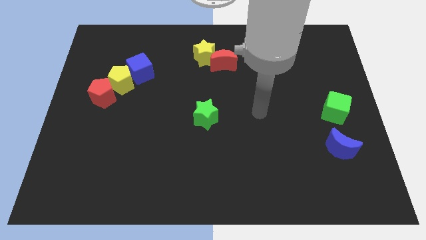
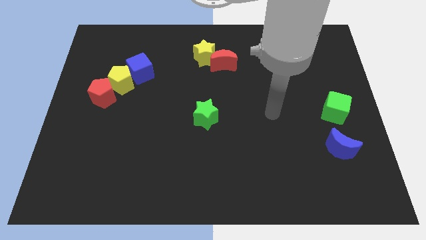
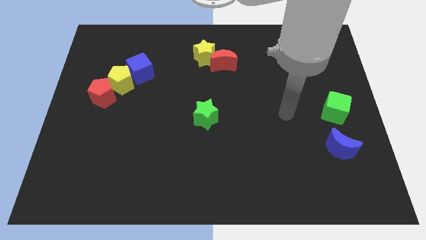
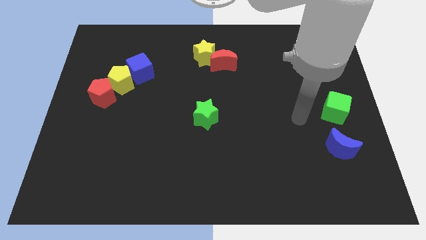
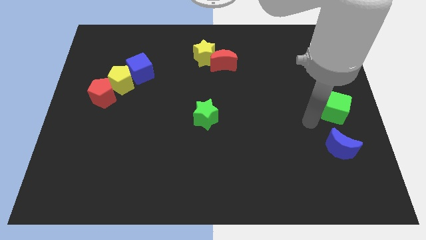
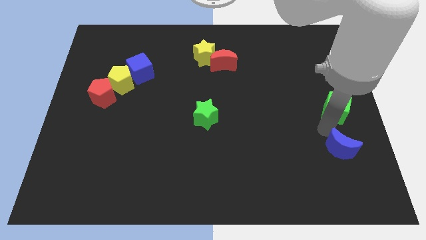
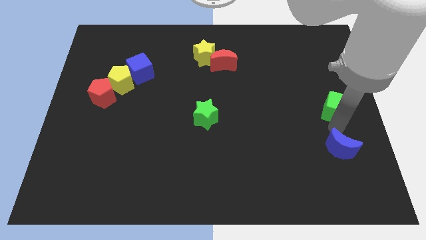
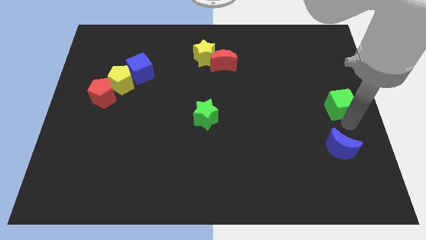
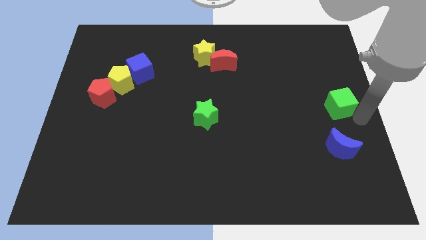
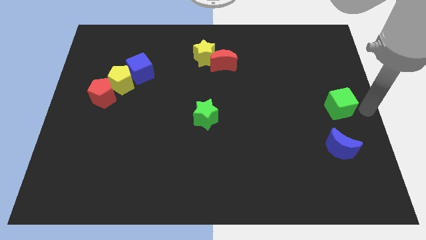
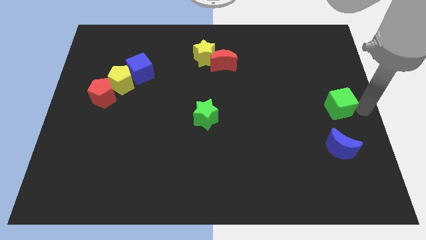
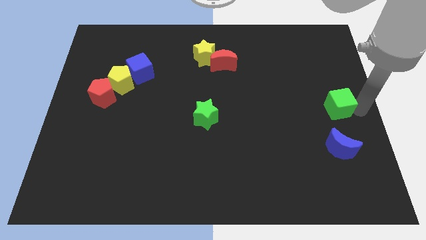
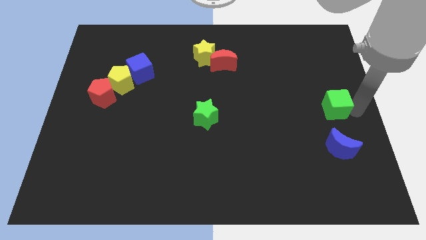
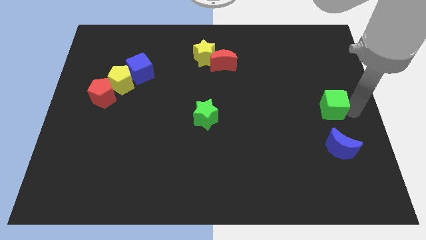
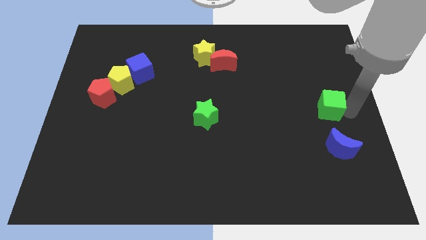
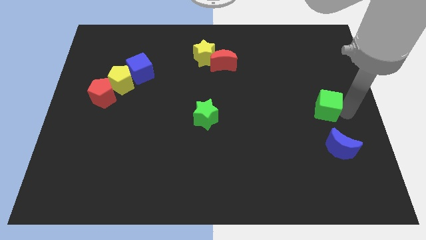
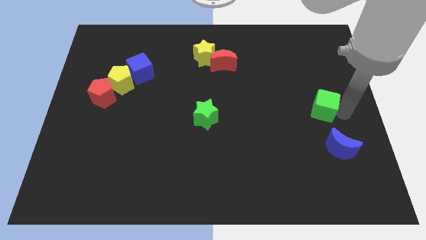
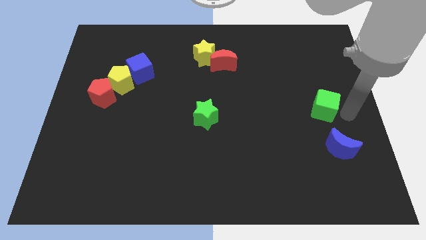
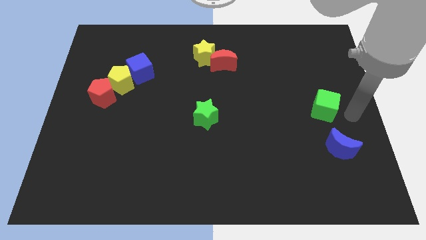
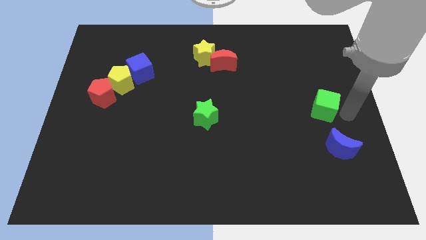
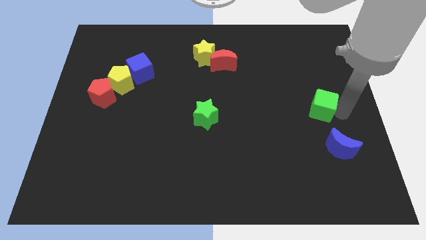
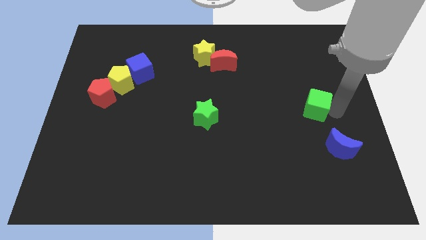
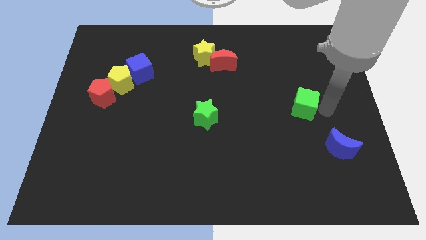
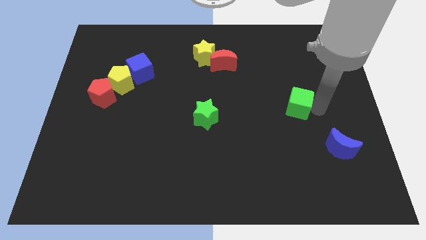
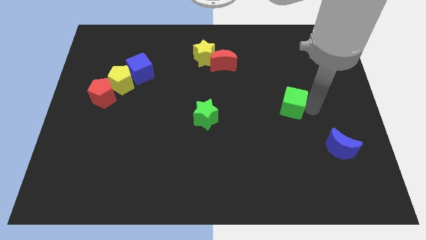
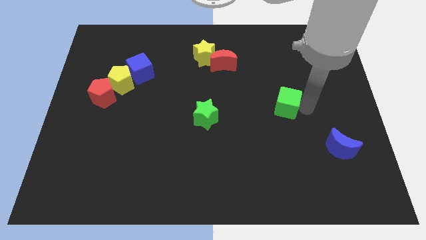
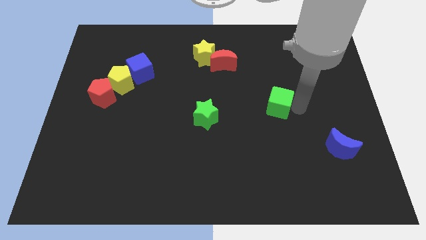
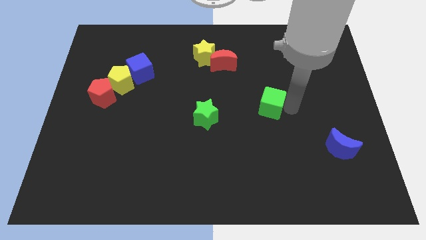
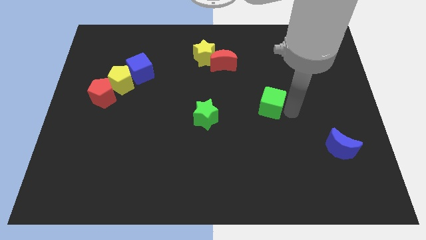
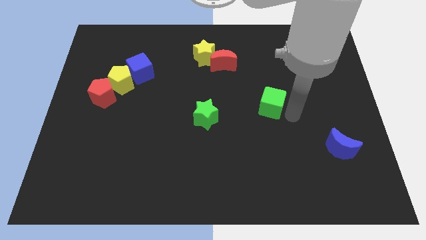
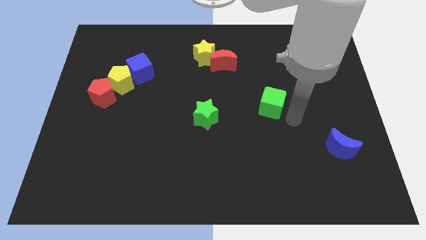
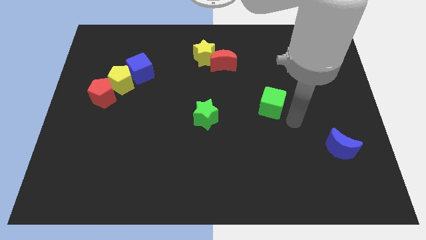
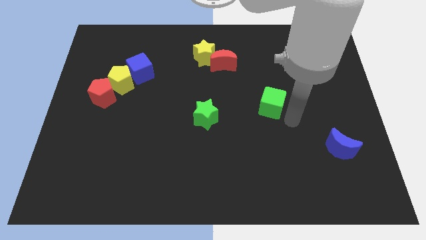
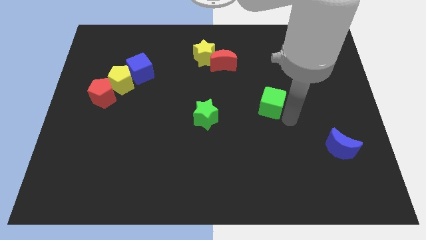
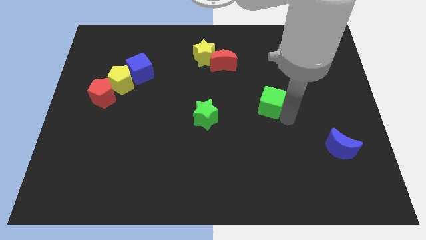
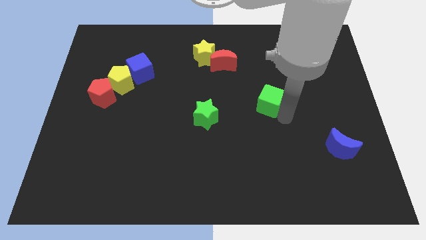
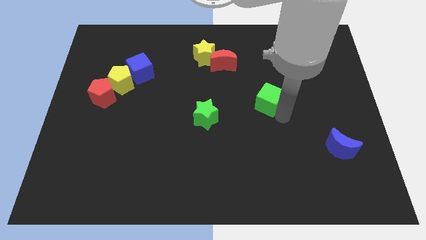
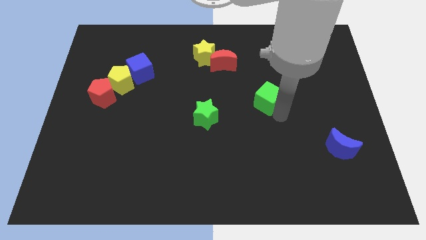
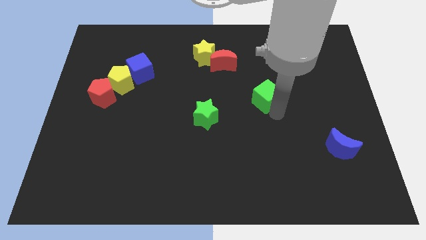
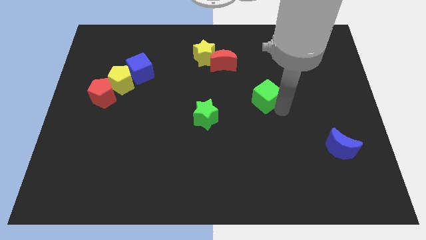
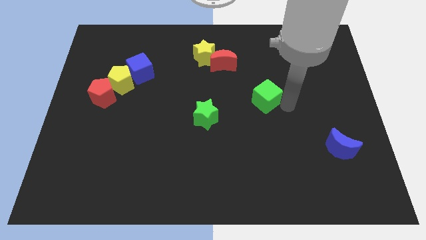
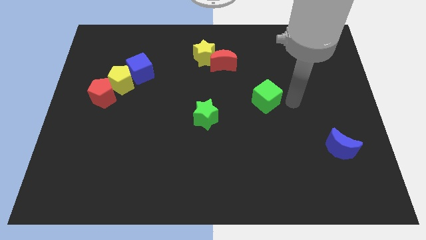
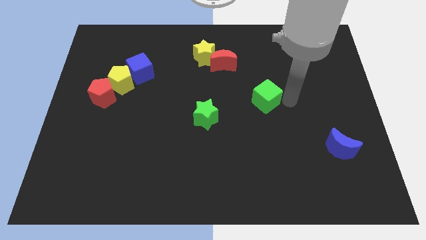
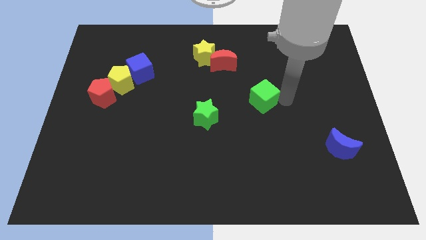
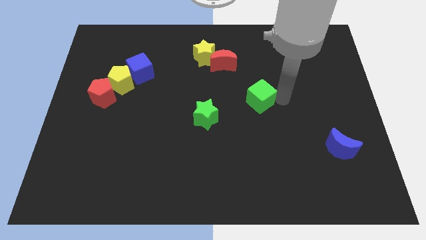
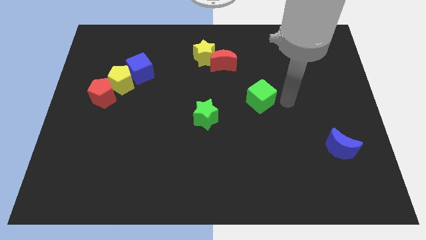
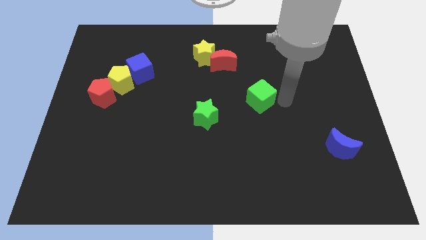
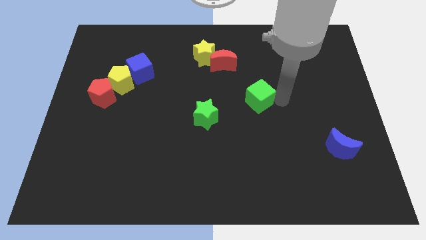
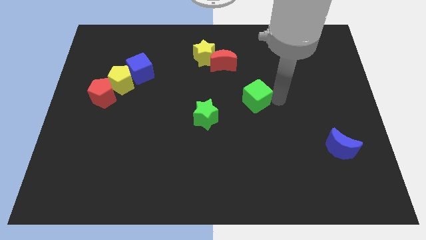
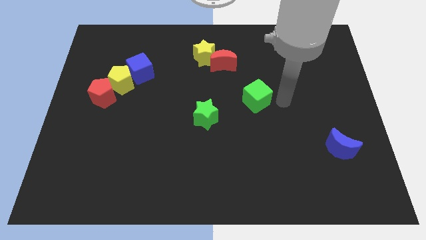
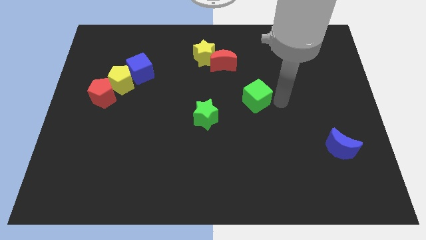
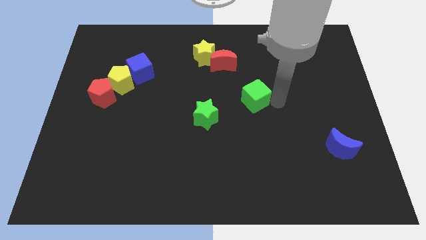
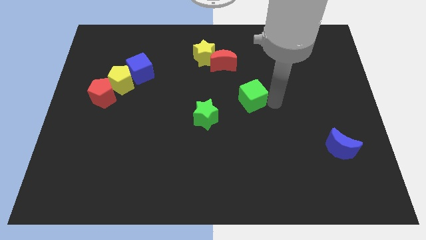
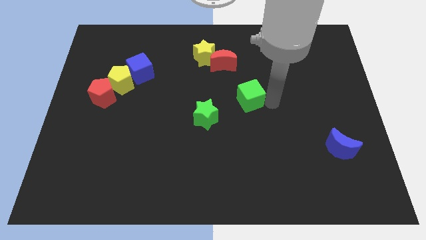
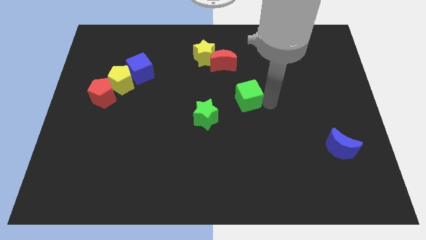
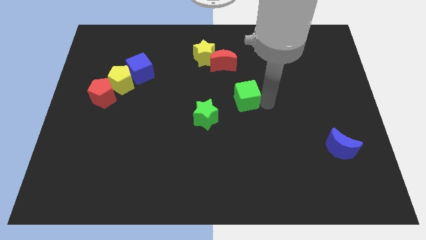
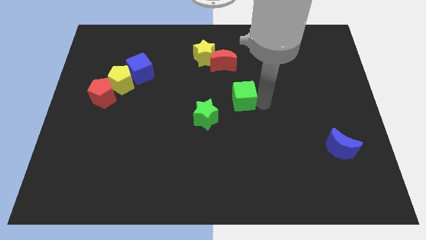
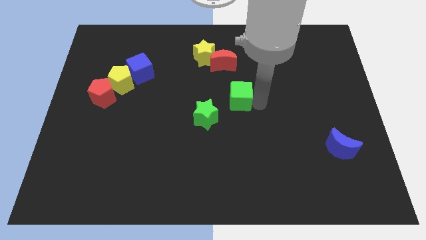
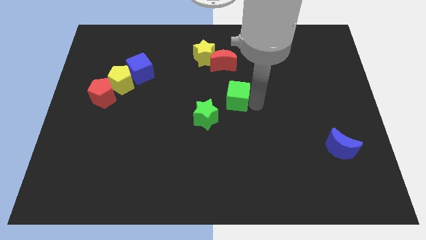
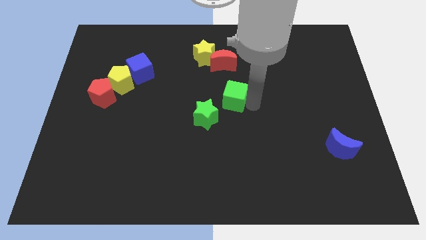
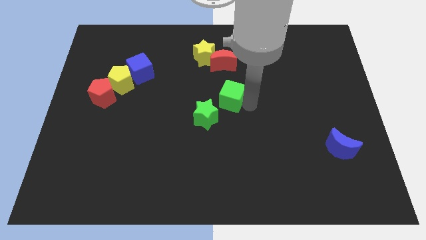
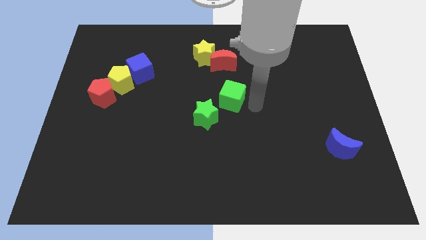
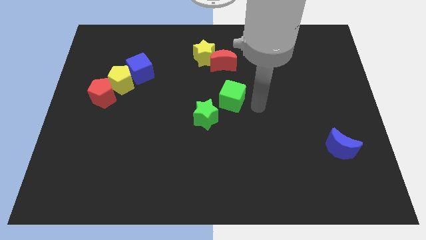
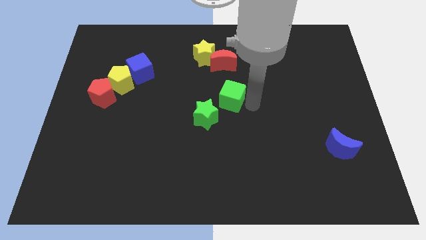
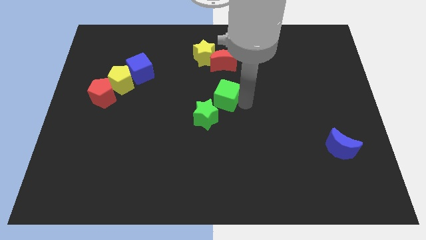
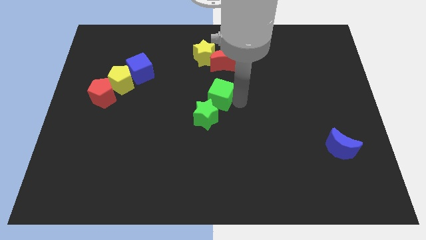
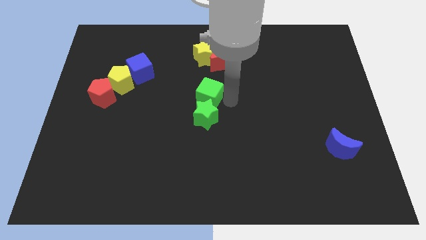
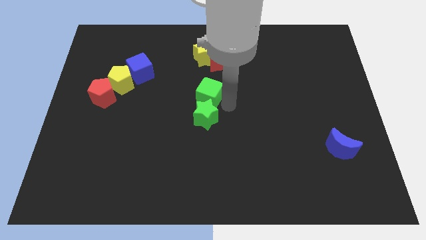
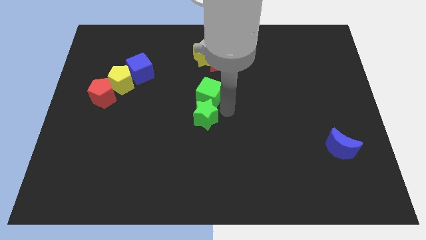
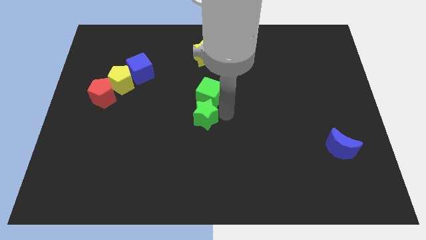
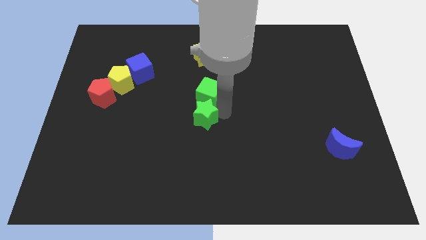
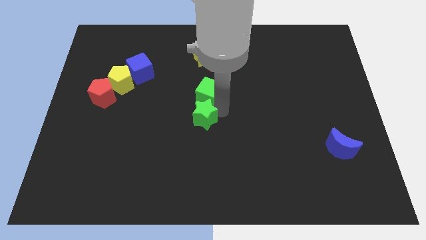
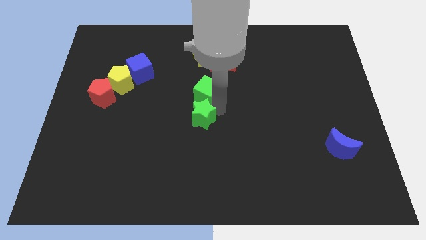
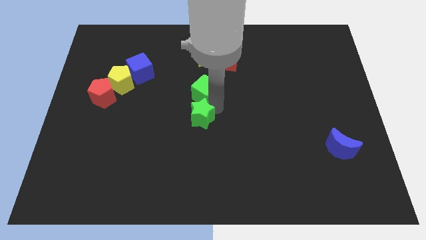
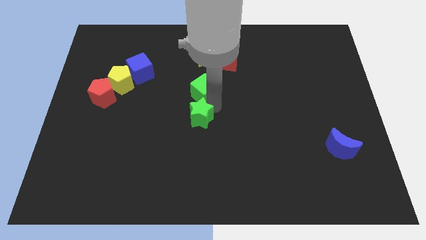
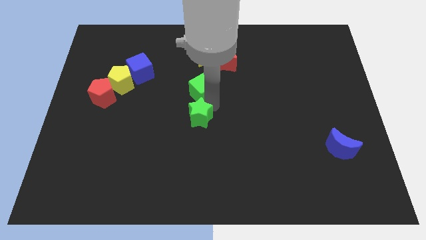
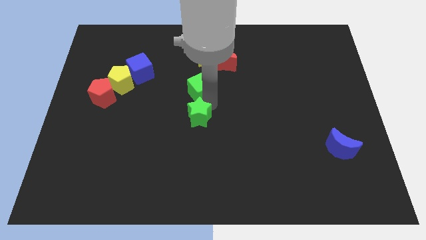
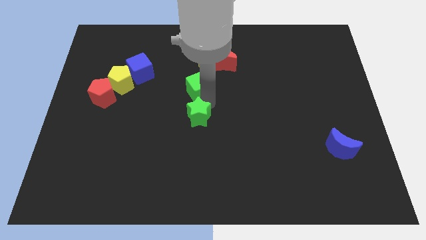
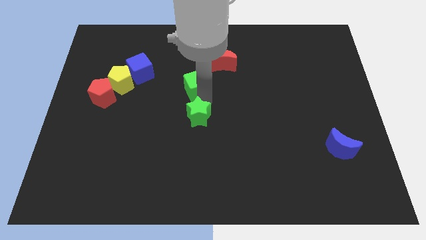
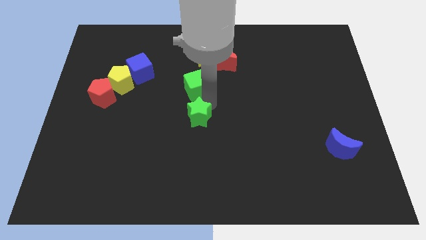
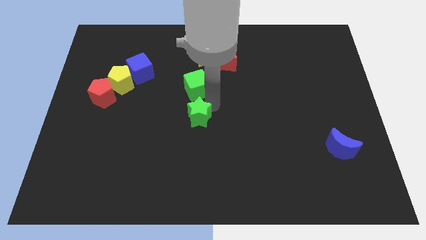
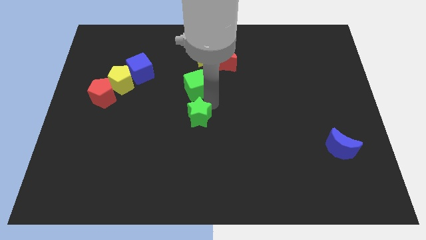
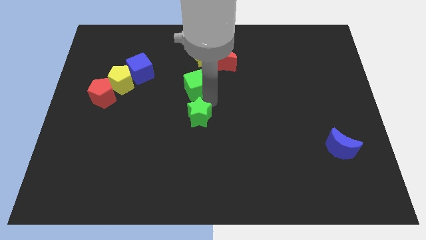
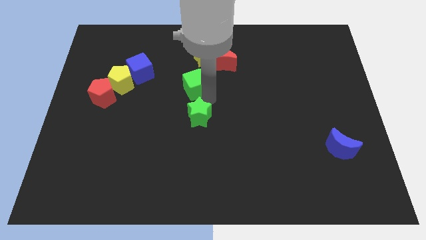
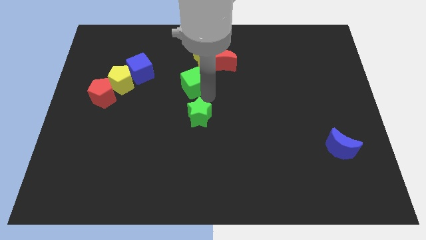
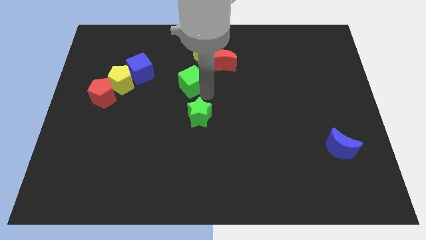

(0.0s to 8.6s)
put the green cube to the right of the blue cube
